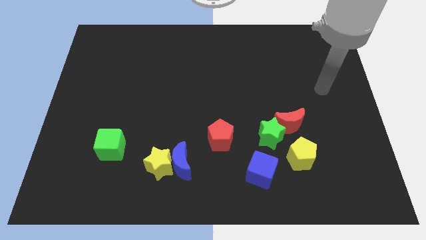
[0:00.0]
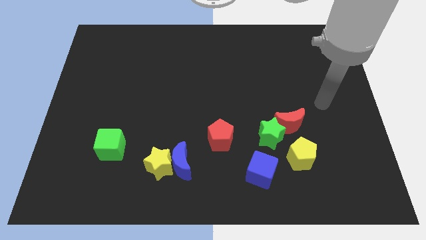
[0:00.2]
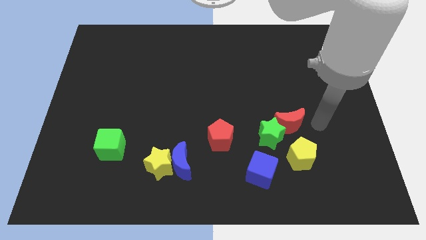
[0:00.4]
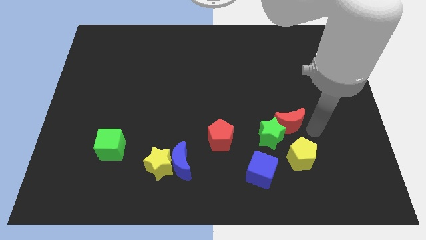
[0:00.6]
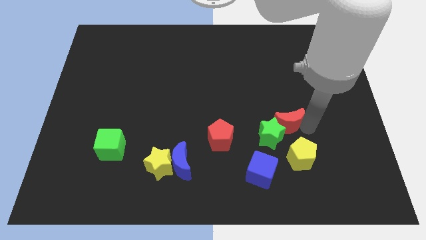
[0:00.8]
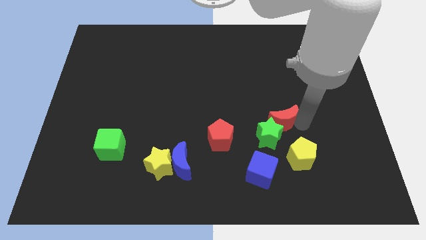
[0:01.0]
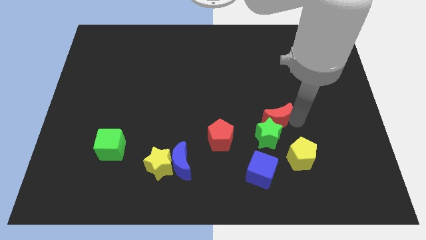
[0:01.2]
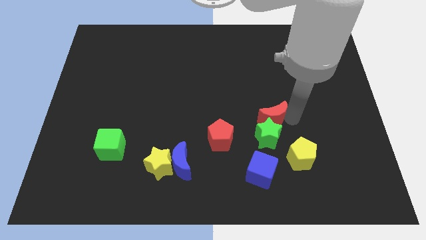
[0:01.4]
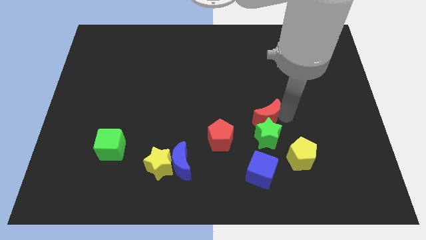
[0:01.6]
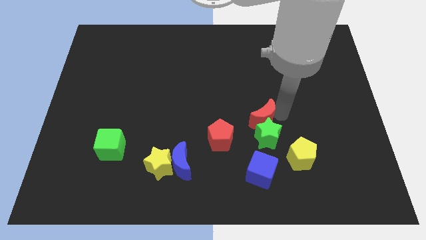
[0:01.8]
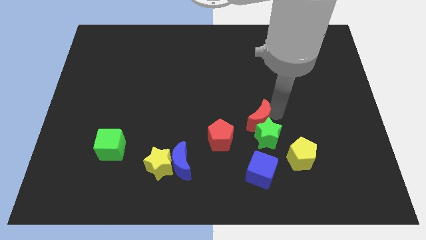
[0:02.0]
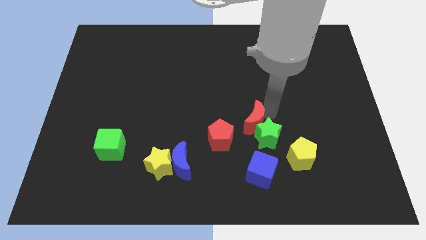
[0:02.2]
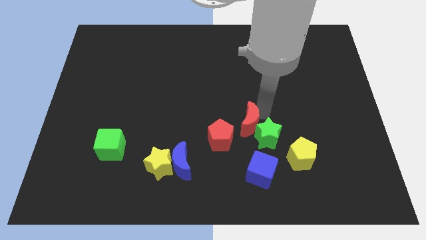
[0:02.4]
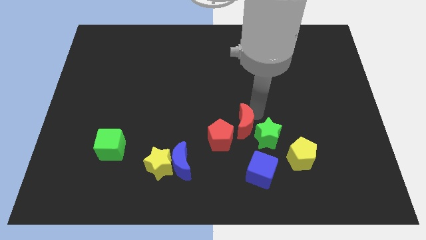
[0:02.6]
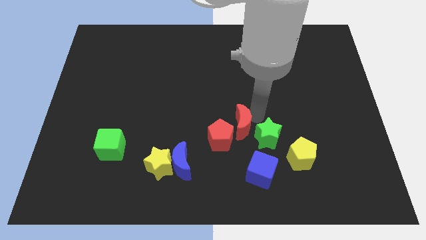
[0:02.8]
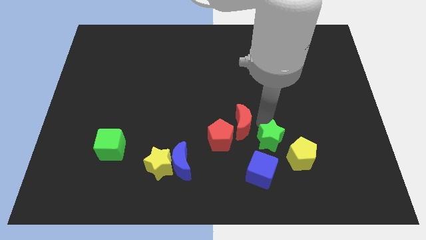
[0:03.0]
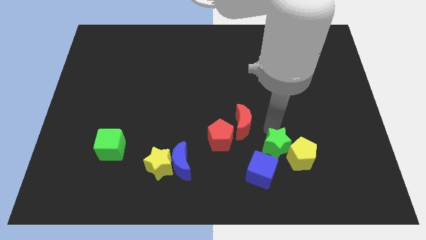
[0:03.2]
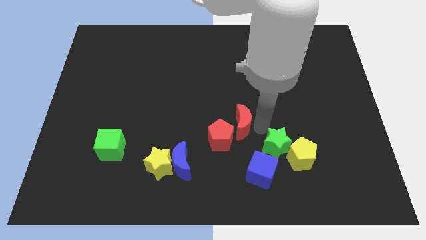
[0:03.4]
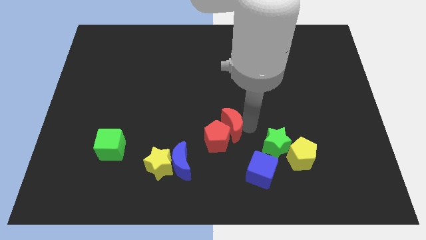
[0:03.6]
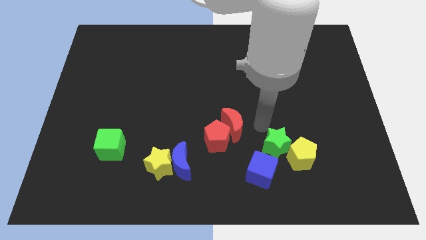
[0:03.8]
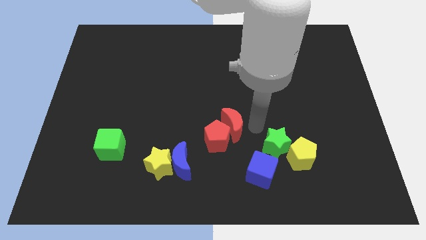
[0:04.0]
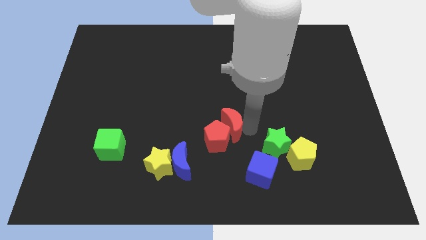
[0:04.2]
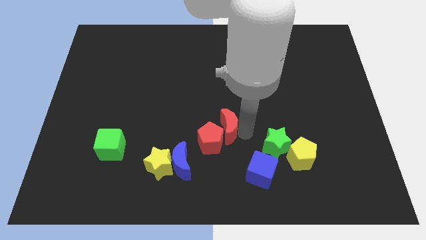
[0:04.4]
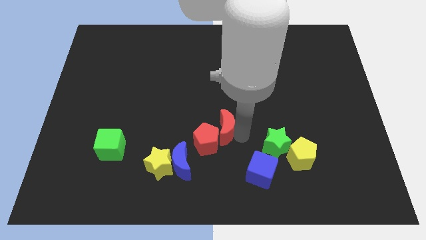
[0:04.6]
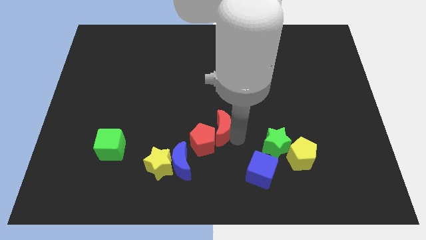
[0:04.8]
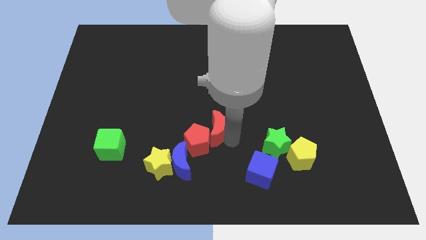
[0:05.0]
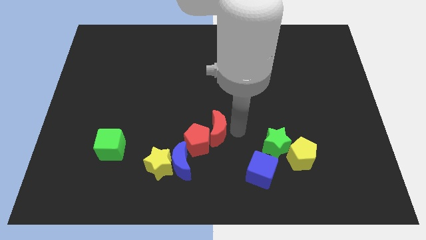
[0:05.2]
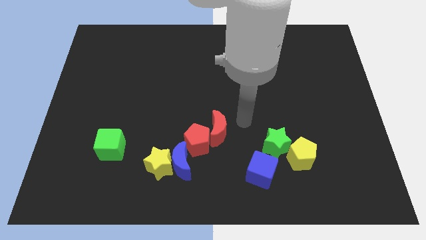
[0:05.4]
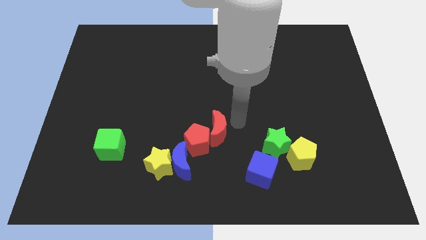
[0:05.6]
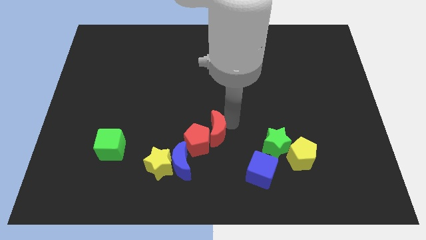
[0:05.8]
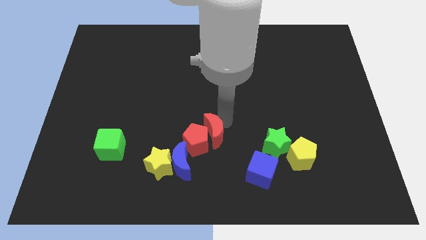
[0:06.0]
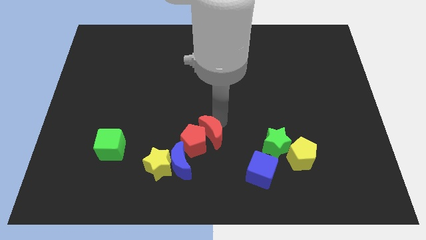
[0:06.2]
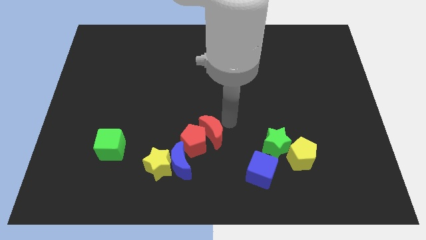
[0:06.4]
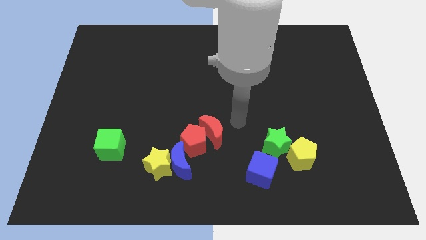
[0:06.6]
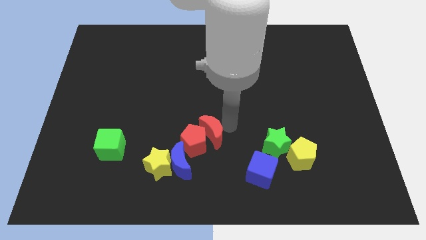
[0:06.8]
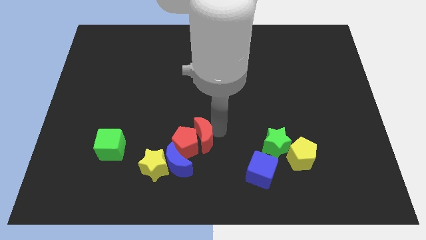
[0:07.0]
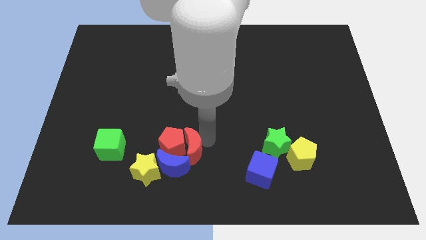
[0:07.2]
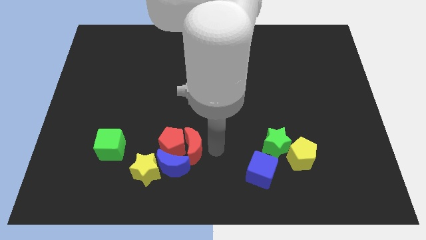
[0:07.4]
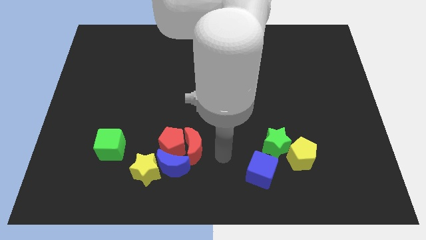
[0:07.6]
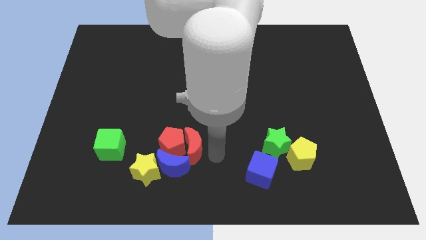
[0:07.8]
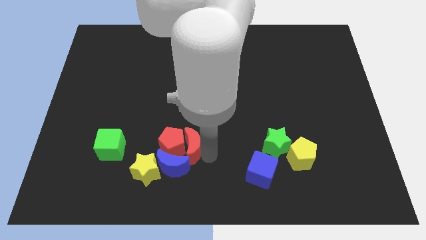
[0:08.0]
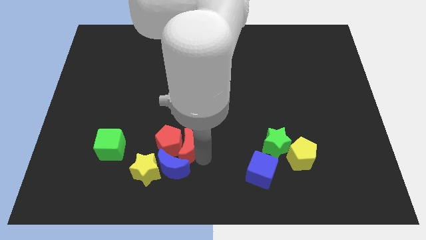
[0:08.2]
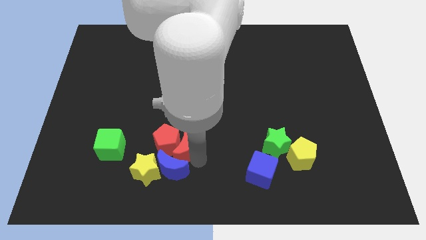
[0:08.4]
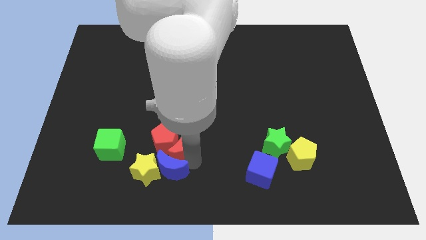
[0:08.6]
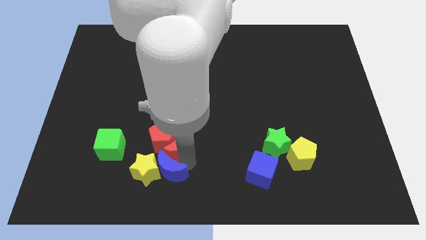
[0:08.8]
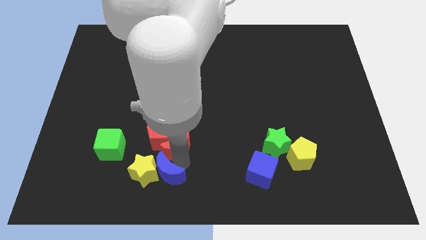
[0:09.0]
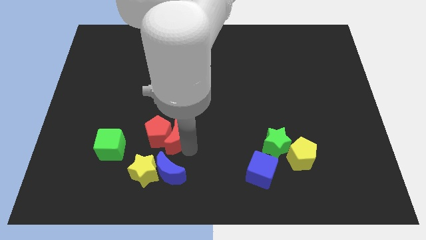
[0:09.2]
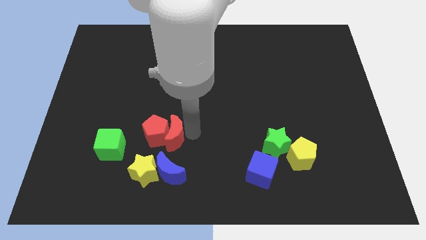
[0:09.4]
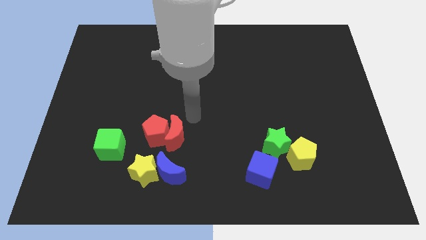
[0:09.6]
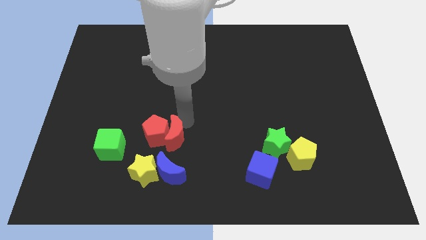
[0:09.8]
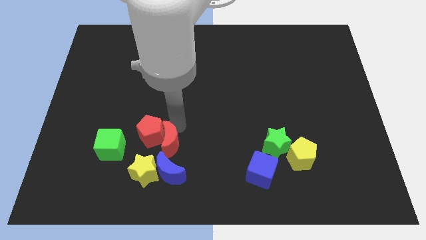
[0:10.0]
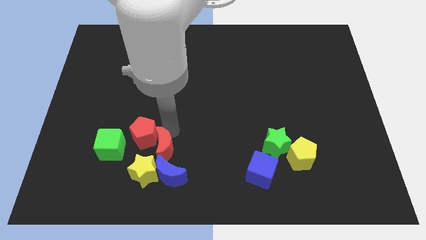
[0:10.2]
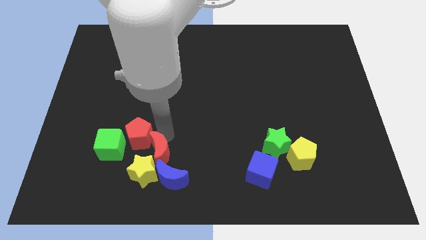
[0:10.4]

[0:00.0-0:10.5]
slide the red moon close to the yellow star

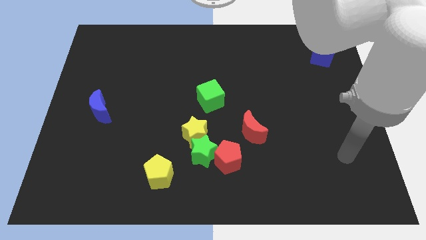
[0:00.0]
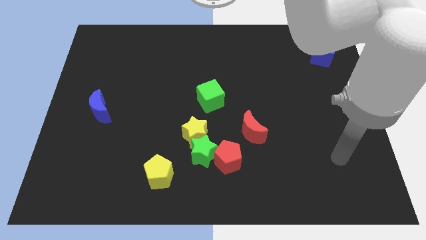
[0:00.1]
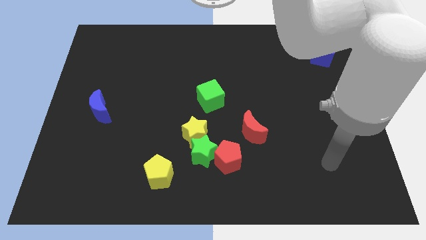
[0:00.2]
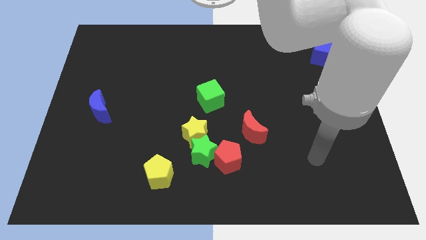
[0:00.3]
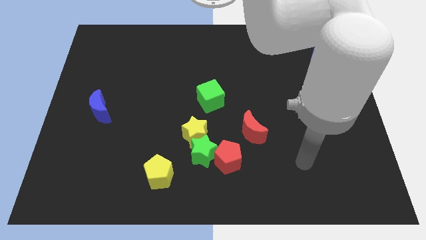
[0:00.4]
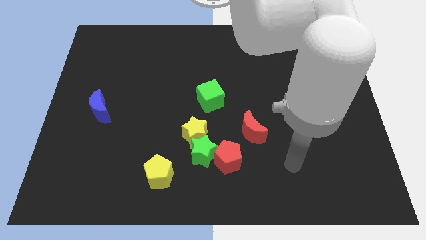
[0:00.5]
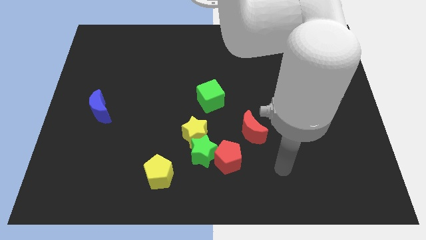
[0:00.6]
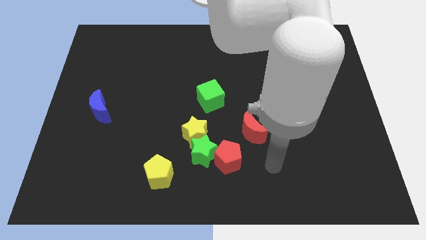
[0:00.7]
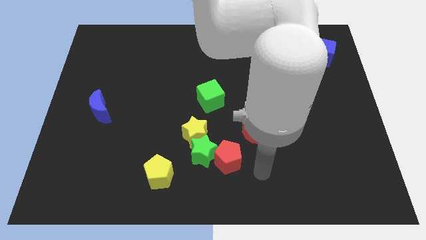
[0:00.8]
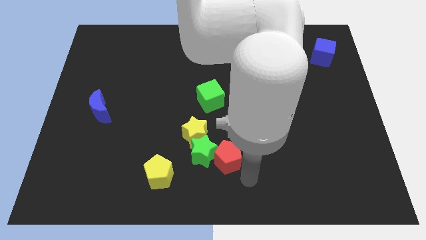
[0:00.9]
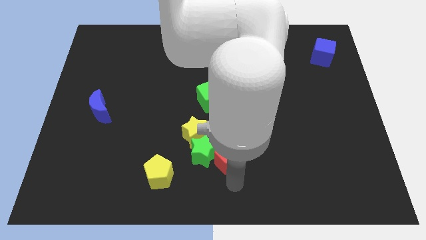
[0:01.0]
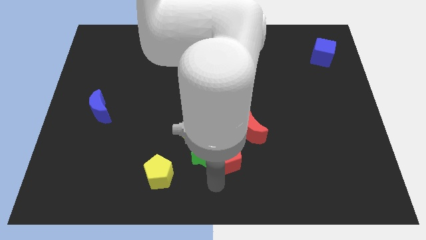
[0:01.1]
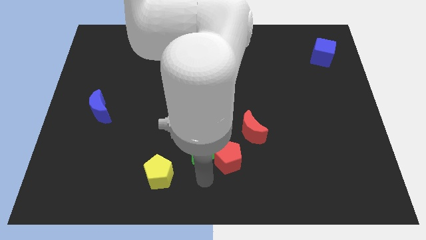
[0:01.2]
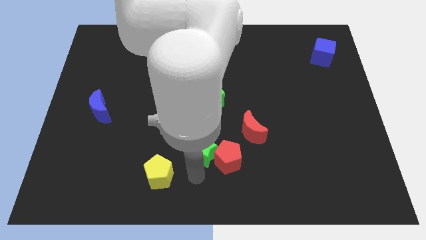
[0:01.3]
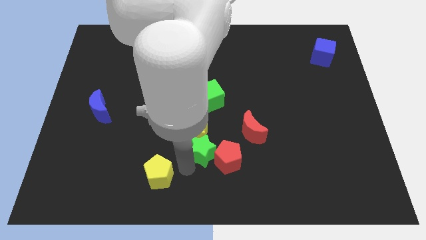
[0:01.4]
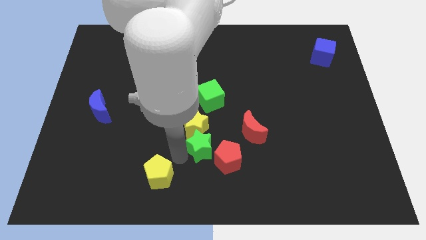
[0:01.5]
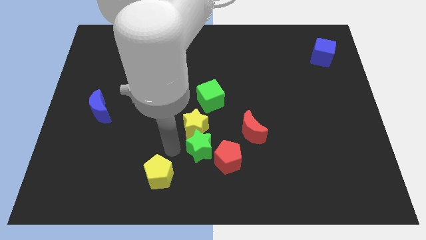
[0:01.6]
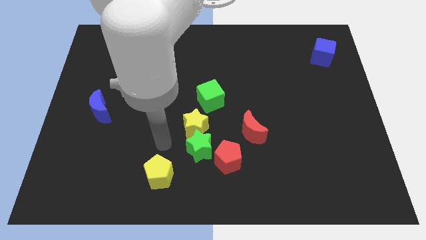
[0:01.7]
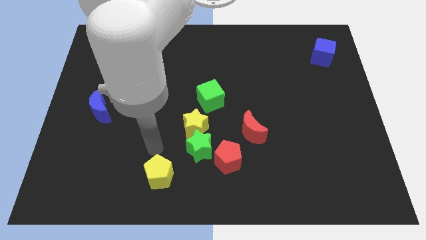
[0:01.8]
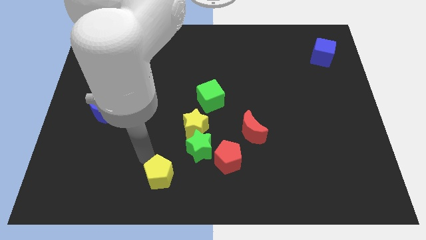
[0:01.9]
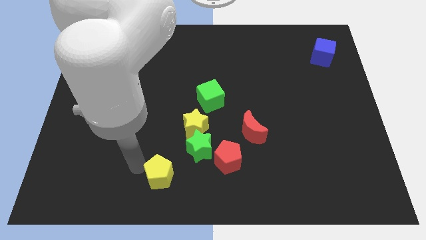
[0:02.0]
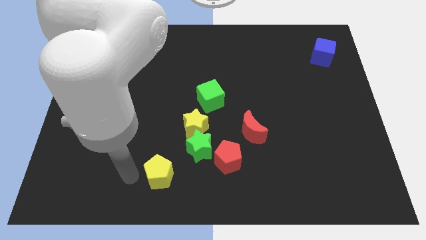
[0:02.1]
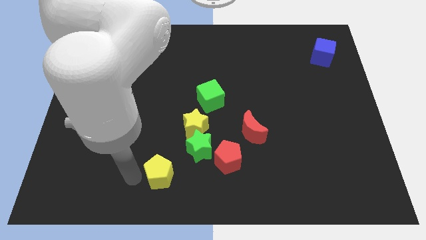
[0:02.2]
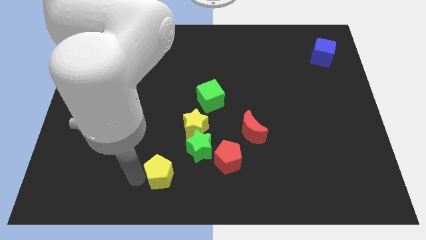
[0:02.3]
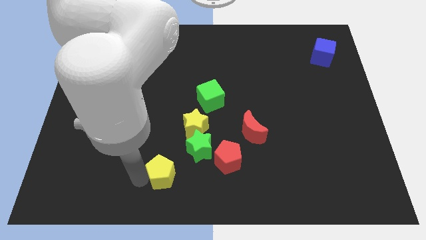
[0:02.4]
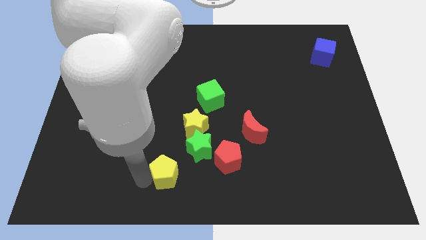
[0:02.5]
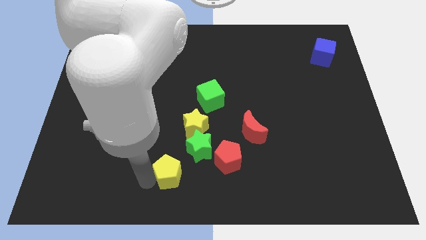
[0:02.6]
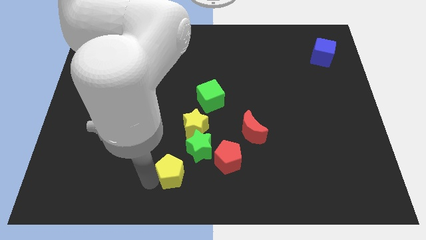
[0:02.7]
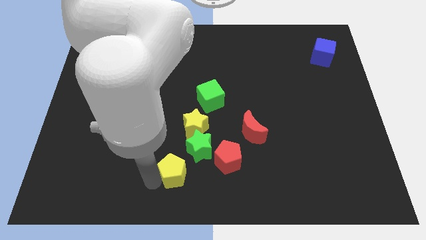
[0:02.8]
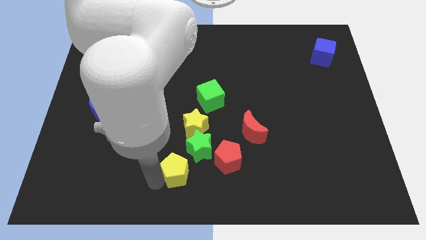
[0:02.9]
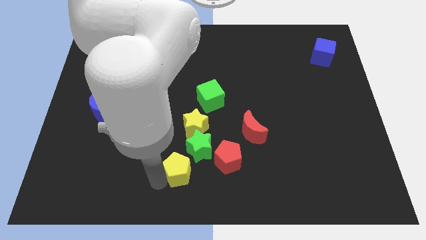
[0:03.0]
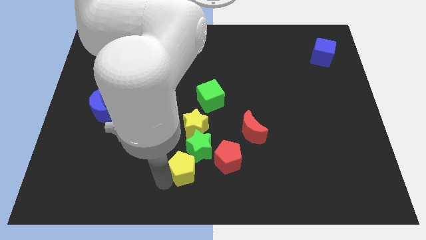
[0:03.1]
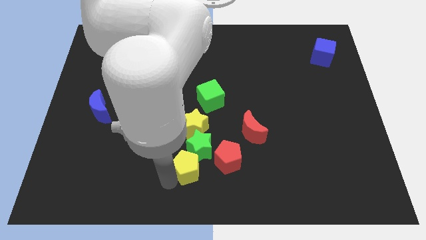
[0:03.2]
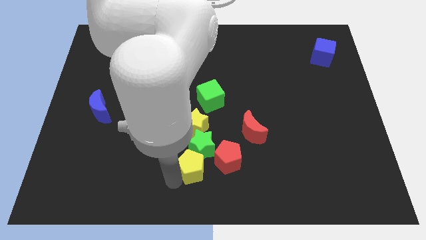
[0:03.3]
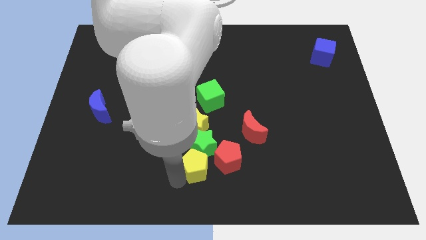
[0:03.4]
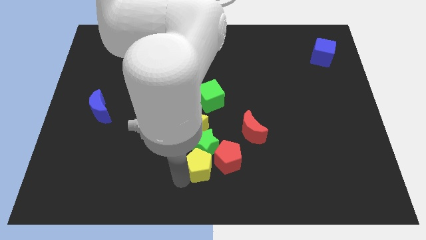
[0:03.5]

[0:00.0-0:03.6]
push the yellow pentagon next to the red pentagon
